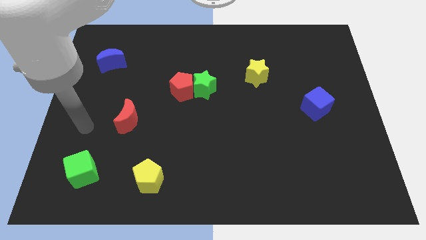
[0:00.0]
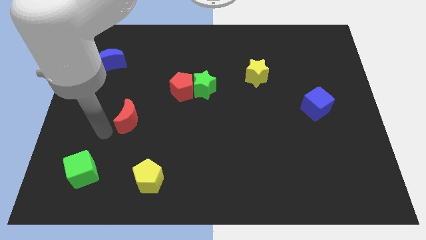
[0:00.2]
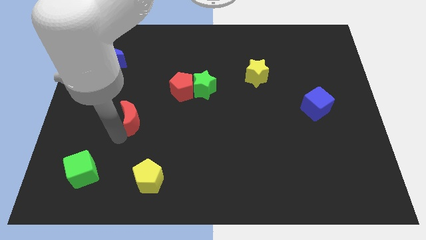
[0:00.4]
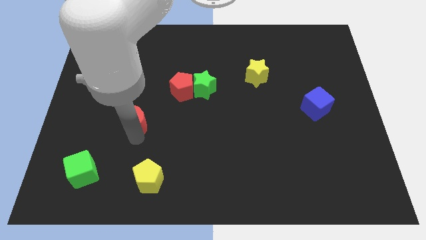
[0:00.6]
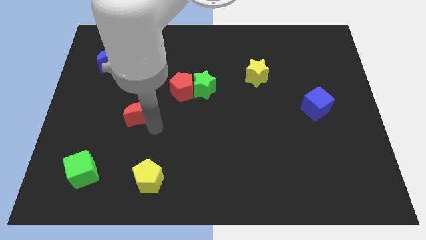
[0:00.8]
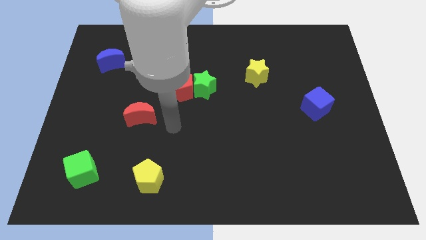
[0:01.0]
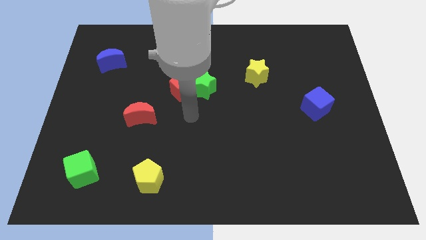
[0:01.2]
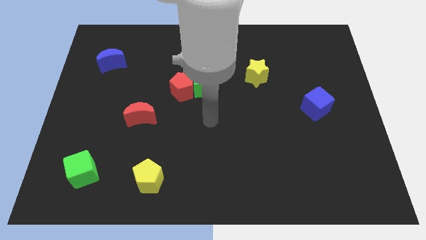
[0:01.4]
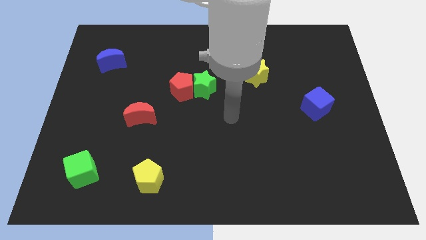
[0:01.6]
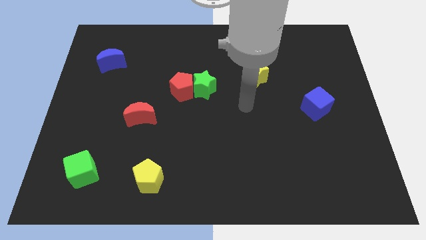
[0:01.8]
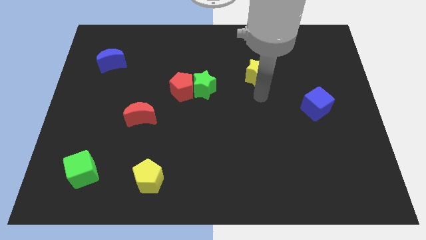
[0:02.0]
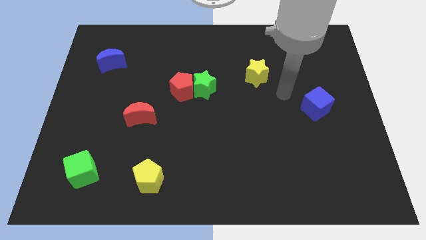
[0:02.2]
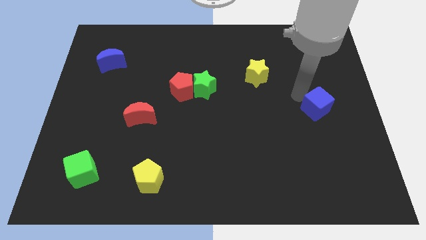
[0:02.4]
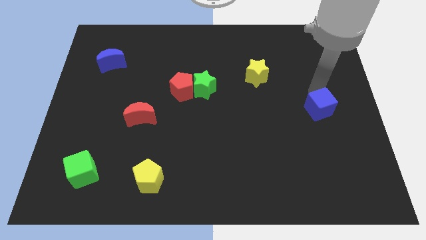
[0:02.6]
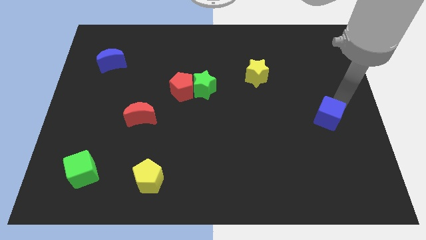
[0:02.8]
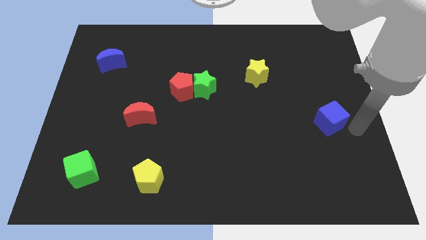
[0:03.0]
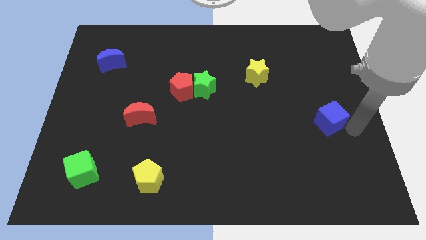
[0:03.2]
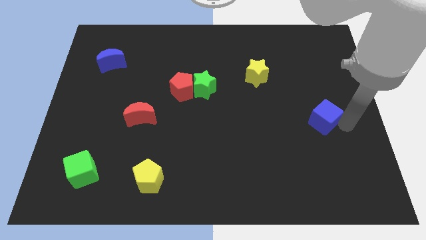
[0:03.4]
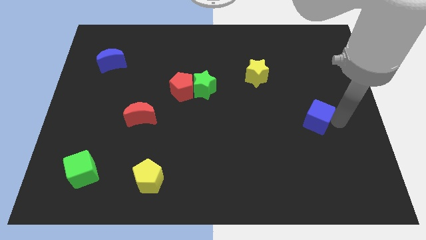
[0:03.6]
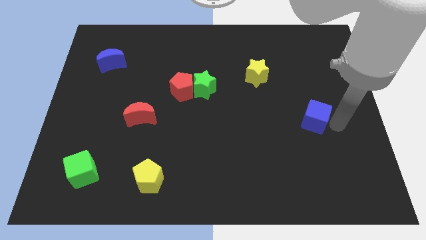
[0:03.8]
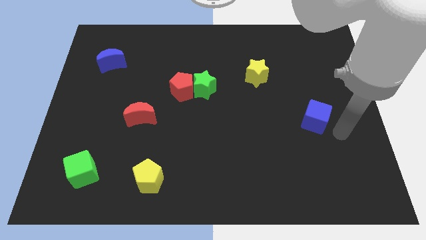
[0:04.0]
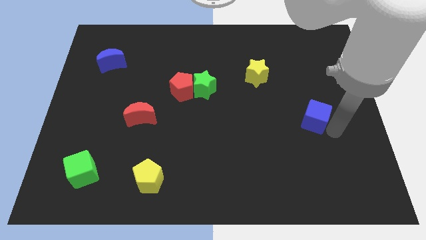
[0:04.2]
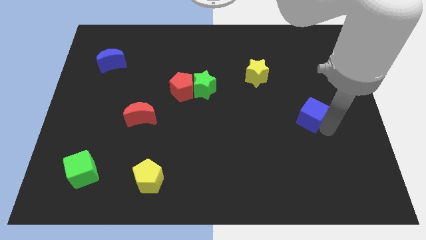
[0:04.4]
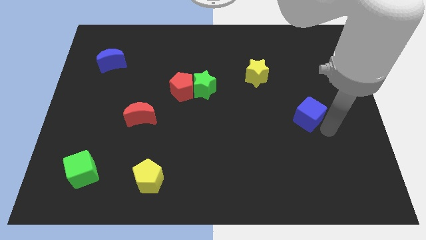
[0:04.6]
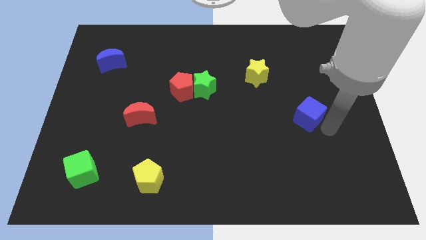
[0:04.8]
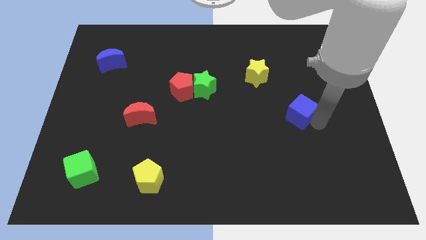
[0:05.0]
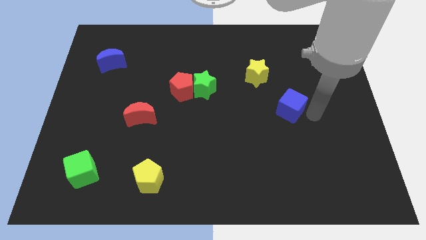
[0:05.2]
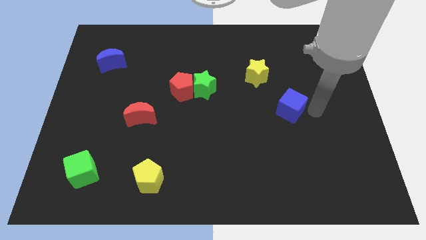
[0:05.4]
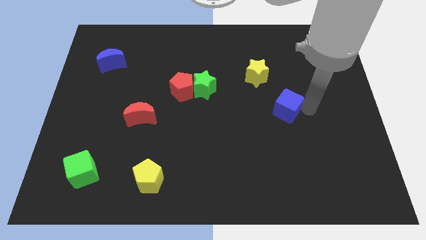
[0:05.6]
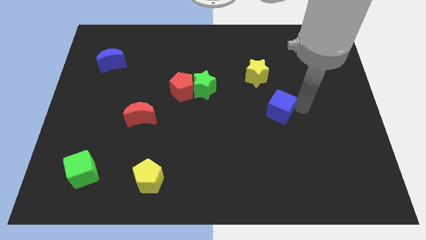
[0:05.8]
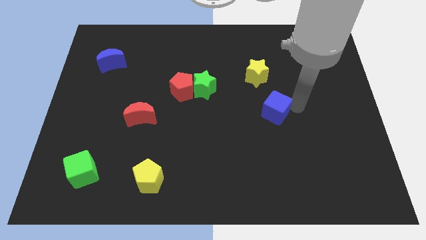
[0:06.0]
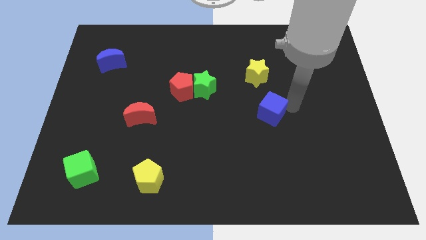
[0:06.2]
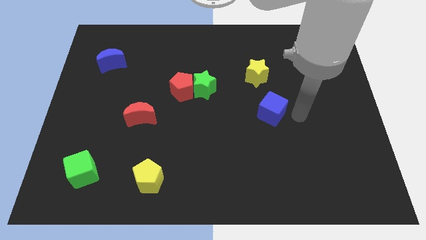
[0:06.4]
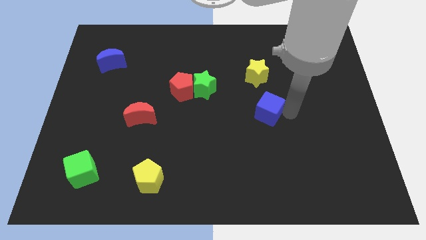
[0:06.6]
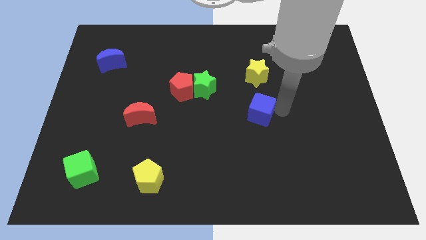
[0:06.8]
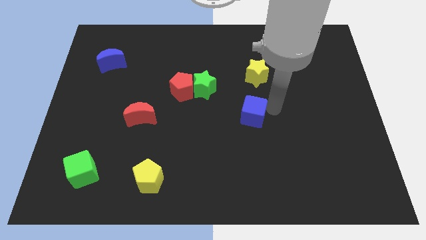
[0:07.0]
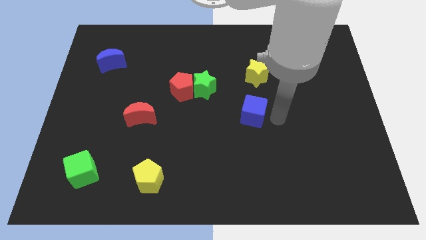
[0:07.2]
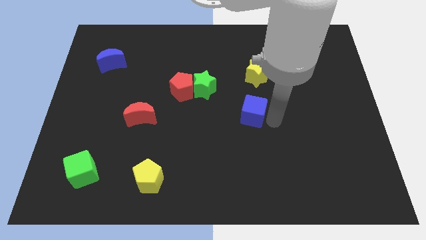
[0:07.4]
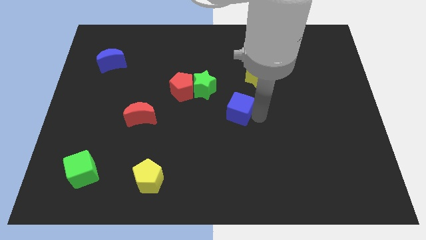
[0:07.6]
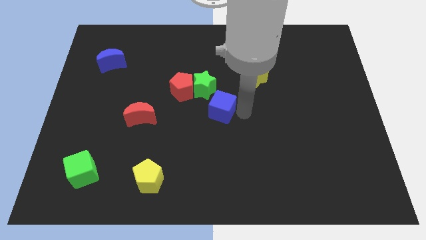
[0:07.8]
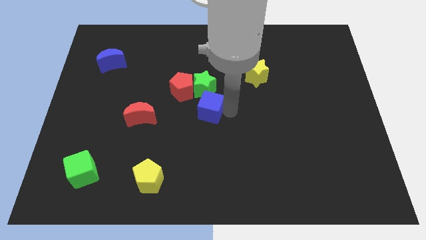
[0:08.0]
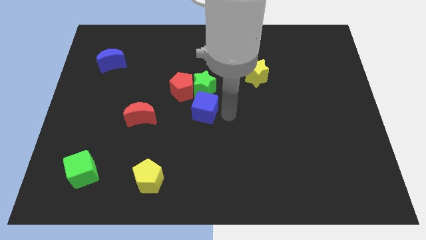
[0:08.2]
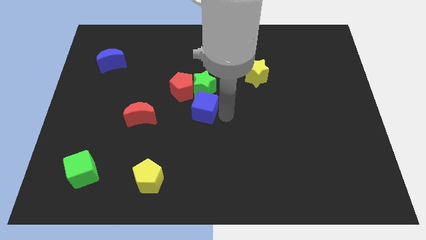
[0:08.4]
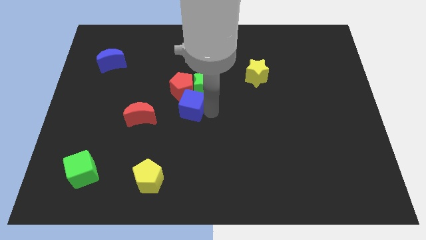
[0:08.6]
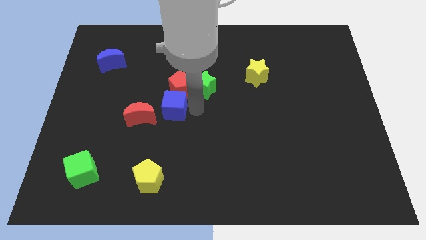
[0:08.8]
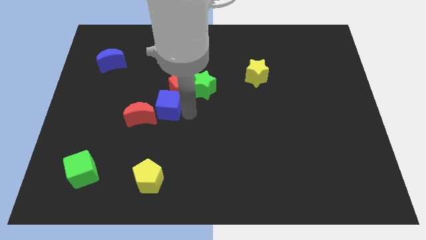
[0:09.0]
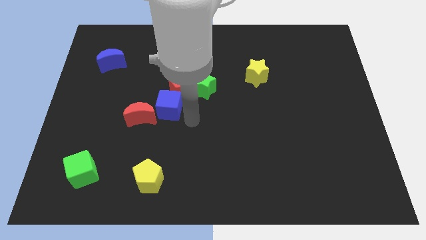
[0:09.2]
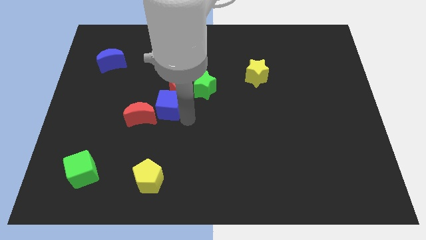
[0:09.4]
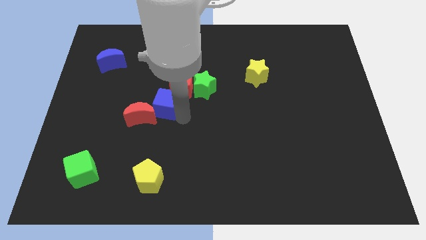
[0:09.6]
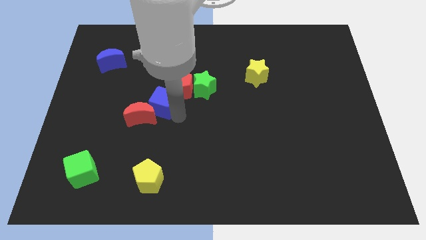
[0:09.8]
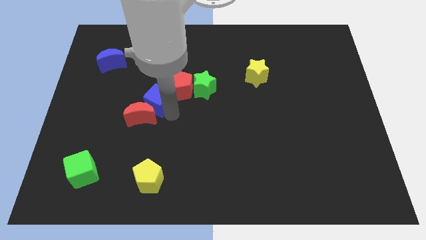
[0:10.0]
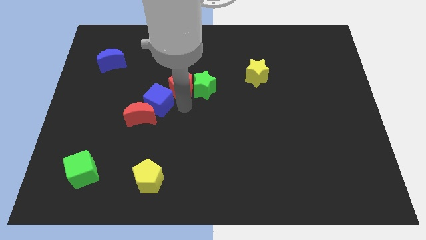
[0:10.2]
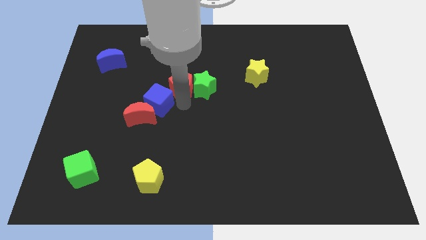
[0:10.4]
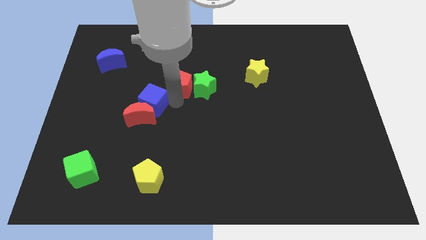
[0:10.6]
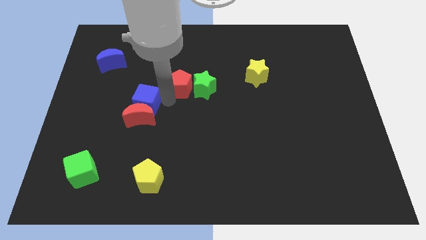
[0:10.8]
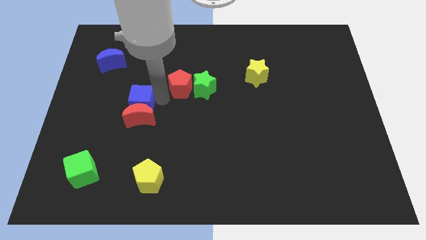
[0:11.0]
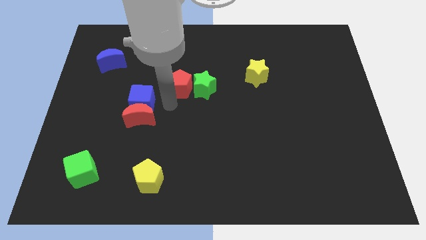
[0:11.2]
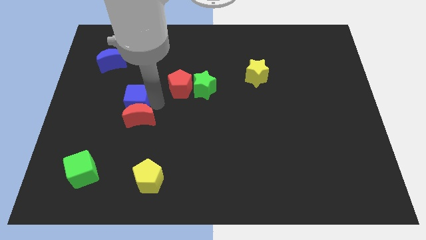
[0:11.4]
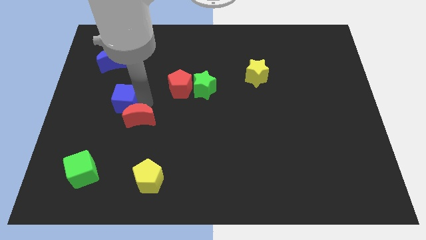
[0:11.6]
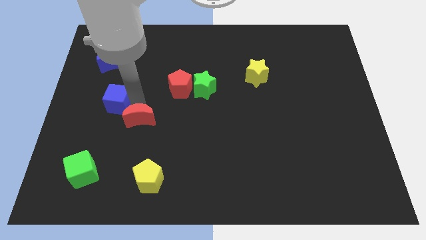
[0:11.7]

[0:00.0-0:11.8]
move the blue cube below the blue moon

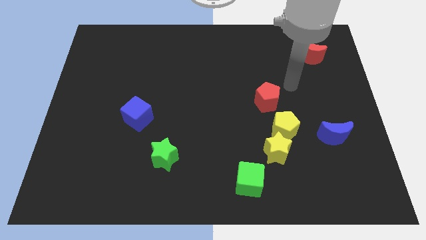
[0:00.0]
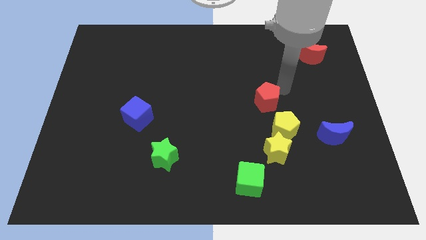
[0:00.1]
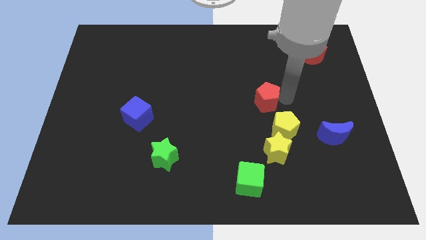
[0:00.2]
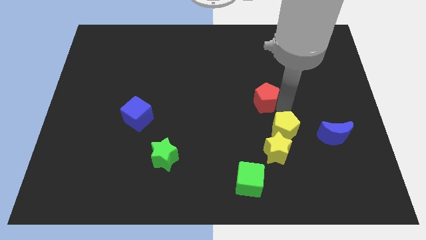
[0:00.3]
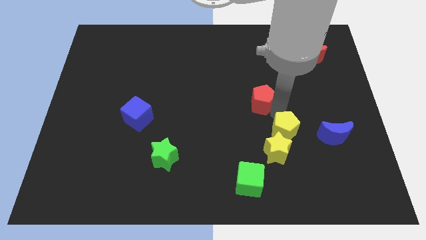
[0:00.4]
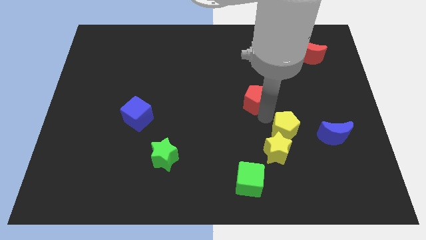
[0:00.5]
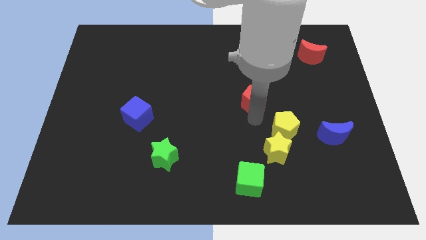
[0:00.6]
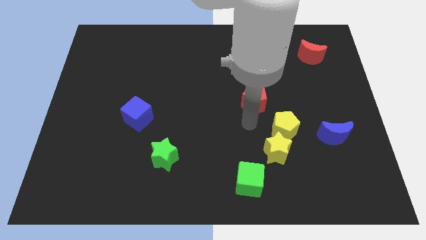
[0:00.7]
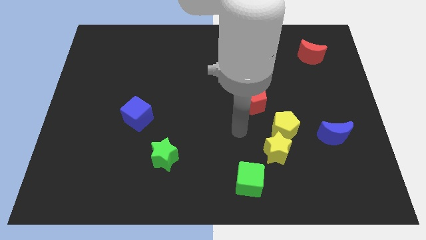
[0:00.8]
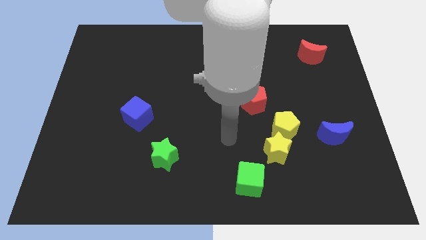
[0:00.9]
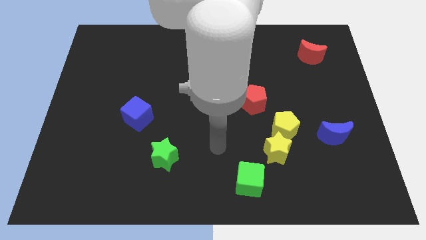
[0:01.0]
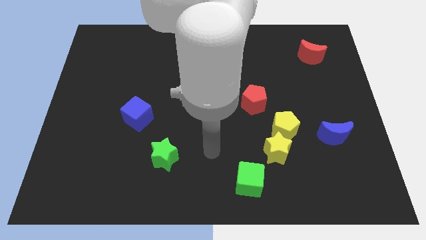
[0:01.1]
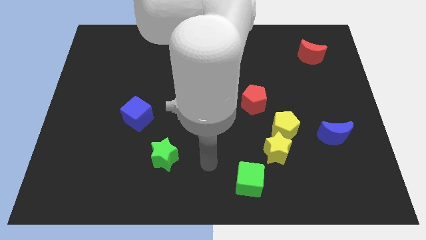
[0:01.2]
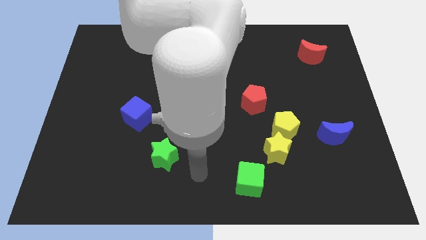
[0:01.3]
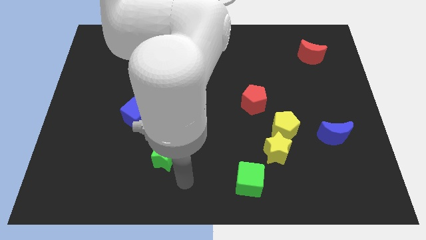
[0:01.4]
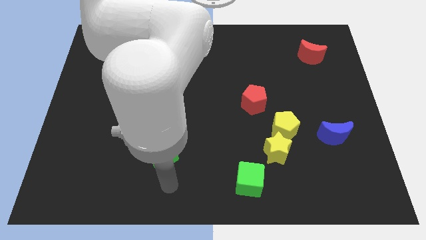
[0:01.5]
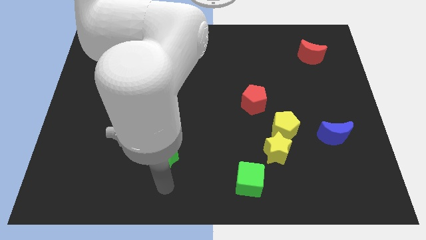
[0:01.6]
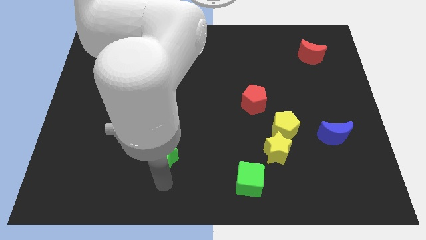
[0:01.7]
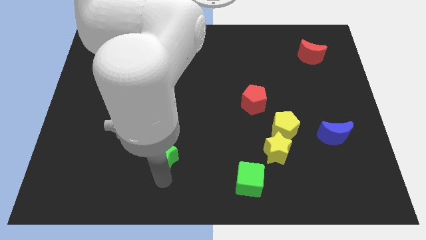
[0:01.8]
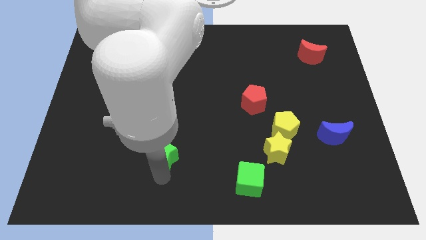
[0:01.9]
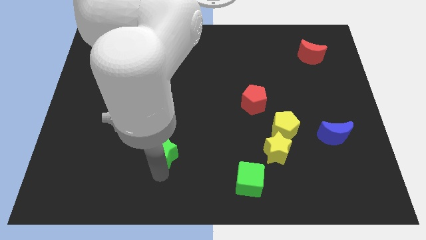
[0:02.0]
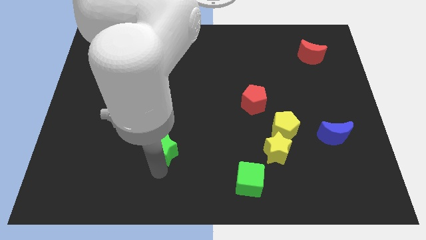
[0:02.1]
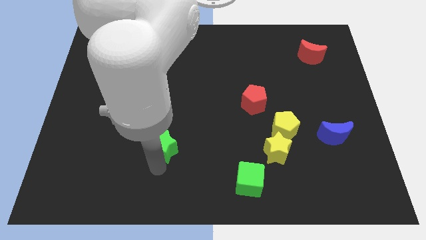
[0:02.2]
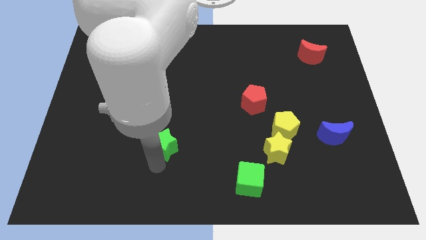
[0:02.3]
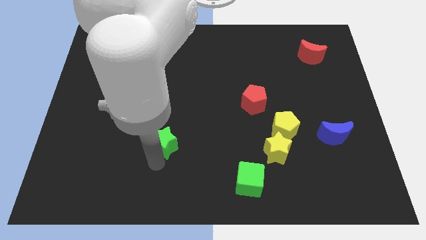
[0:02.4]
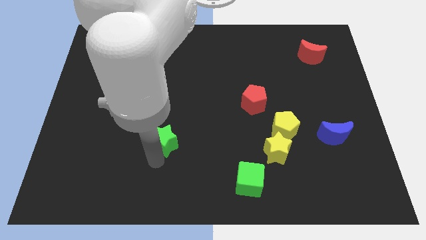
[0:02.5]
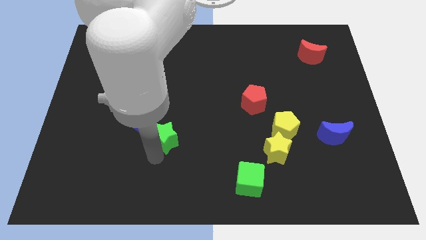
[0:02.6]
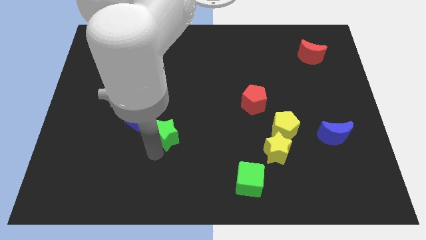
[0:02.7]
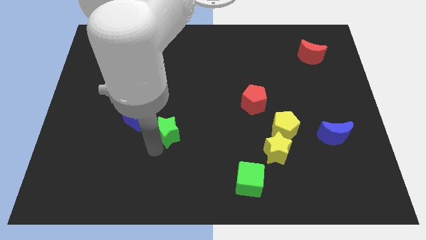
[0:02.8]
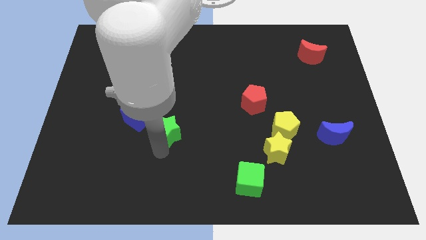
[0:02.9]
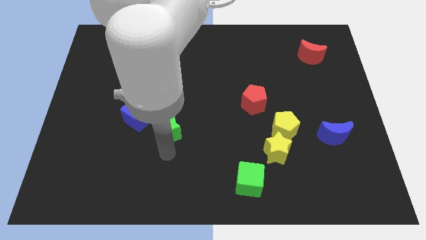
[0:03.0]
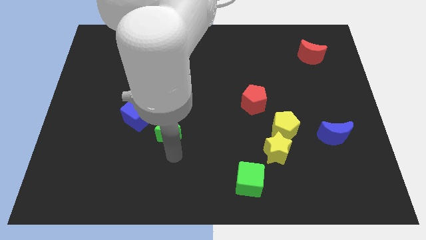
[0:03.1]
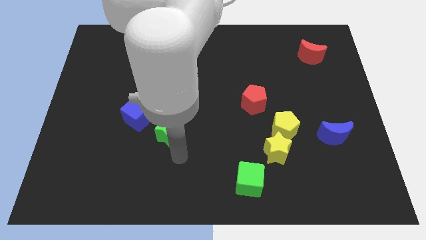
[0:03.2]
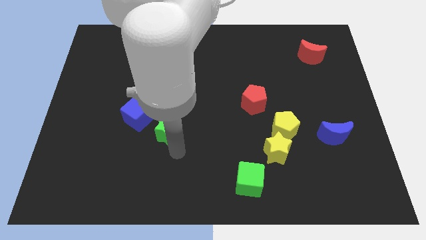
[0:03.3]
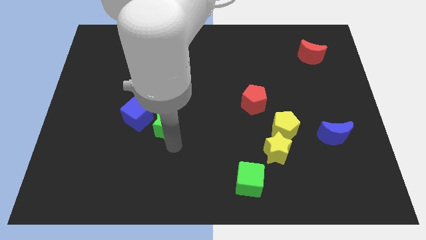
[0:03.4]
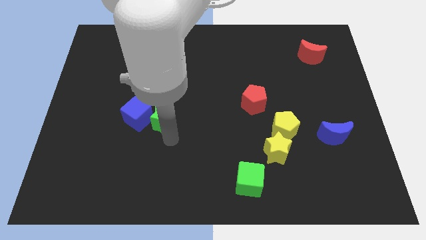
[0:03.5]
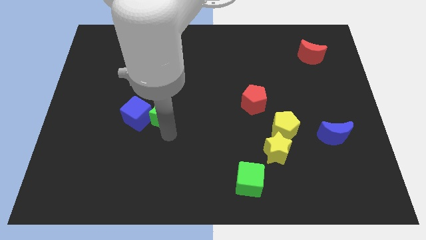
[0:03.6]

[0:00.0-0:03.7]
put the green star to the top right of the blue cube
